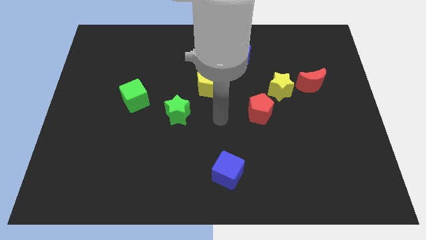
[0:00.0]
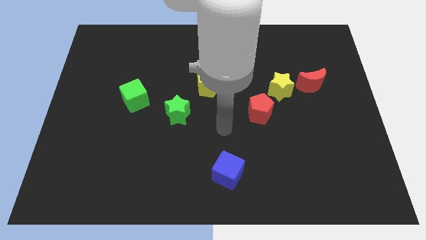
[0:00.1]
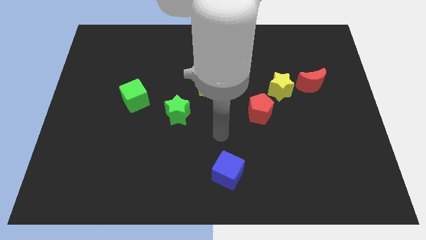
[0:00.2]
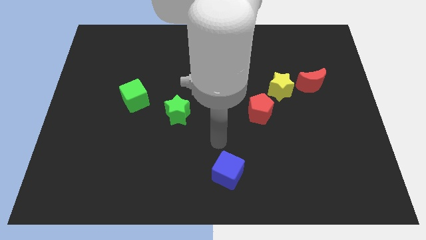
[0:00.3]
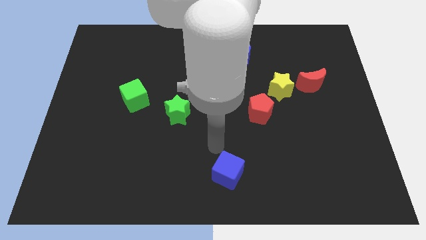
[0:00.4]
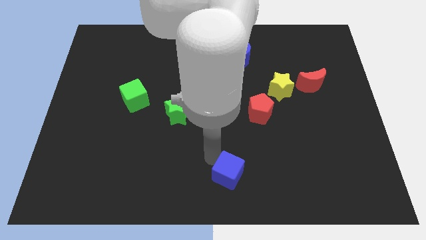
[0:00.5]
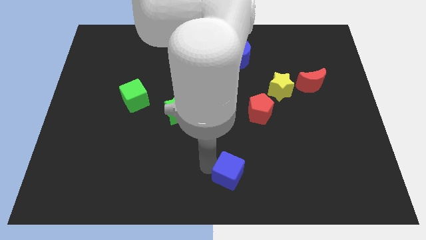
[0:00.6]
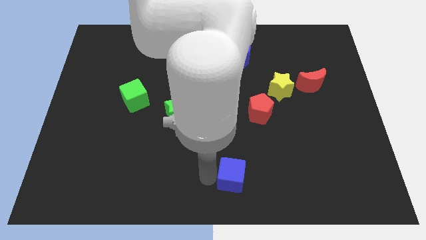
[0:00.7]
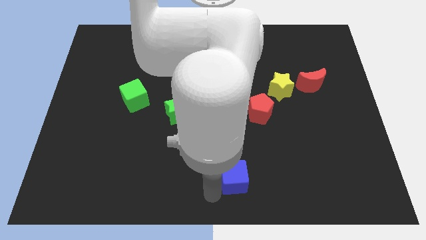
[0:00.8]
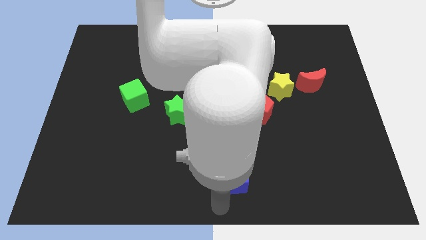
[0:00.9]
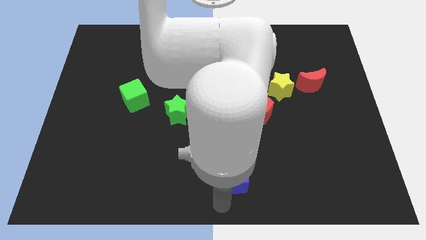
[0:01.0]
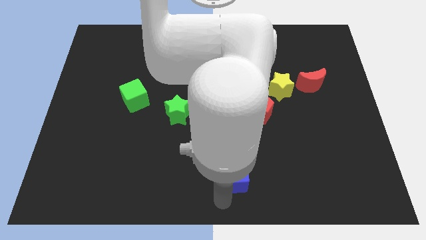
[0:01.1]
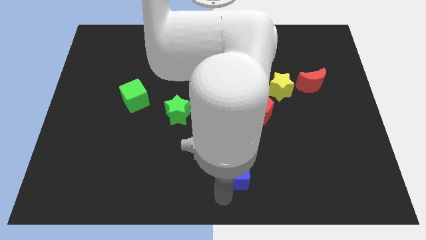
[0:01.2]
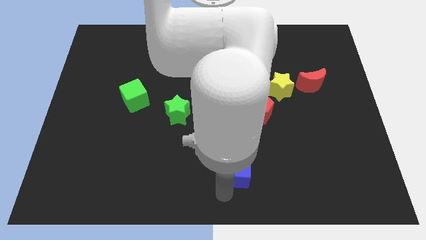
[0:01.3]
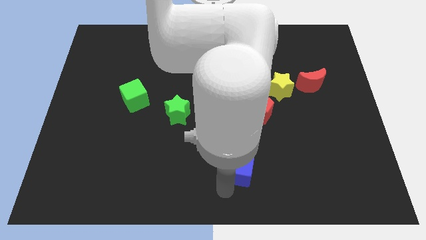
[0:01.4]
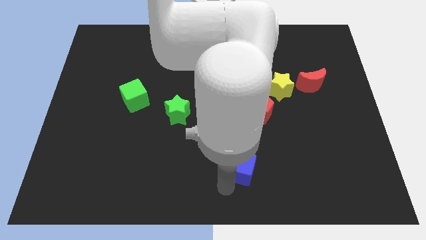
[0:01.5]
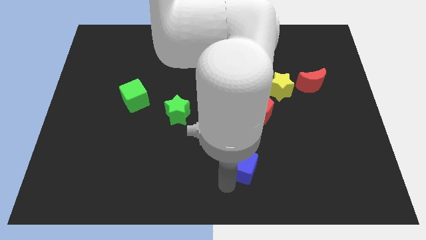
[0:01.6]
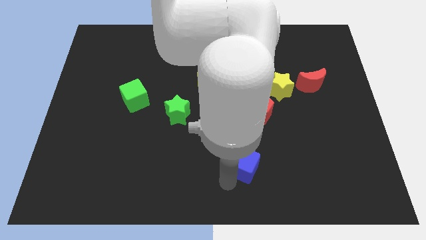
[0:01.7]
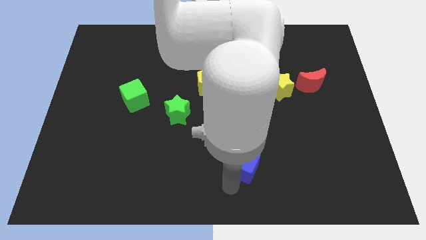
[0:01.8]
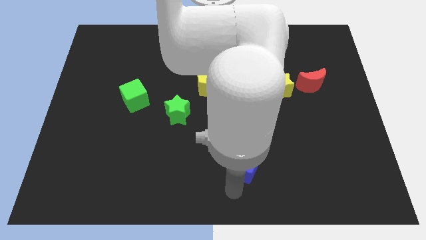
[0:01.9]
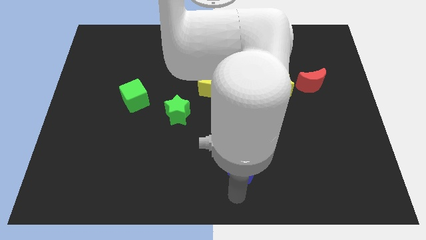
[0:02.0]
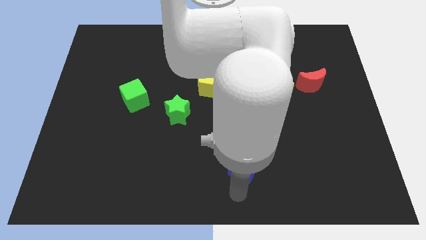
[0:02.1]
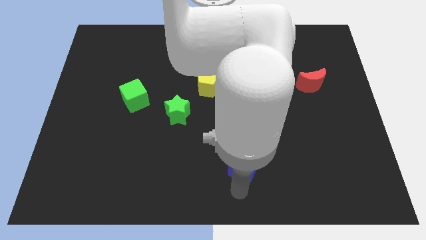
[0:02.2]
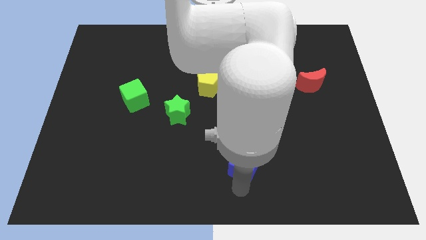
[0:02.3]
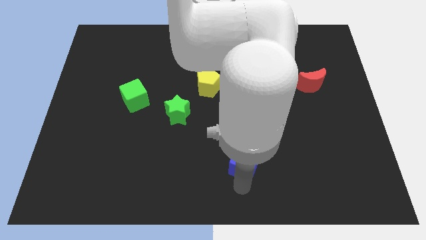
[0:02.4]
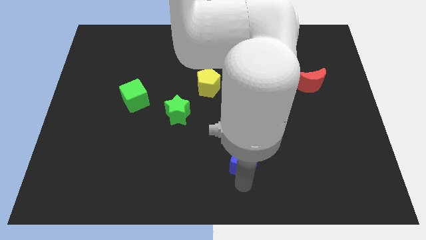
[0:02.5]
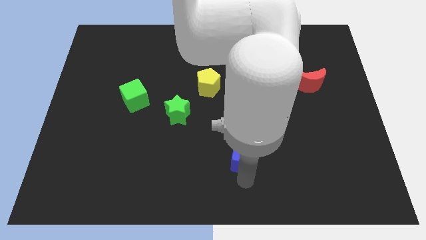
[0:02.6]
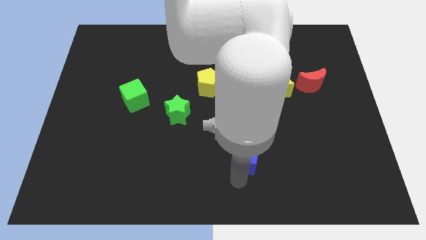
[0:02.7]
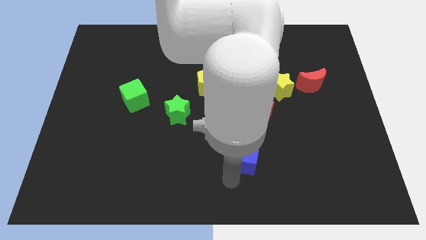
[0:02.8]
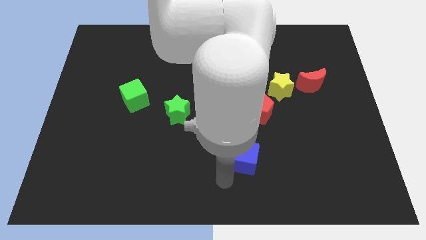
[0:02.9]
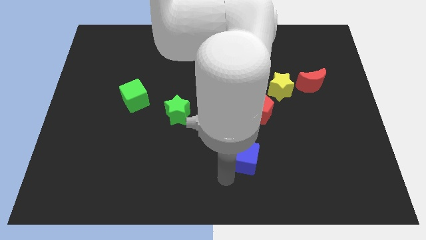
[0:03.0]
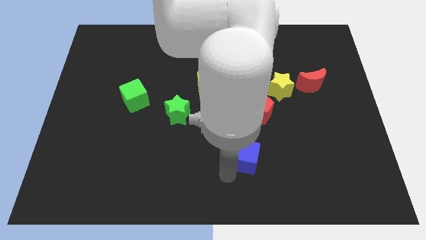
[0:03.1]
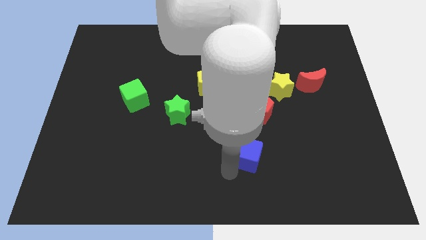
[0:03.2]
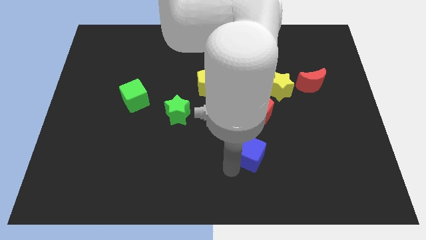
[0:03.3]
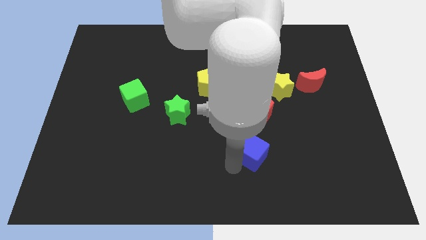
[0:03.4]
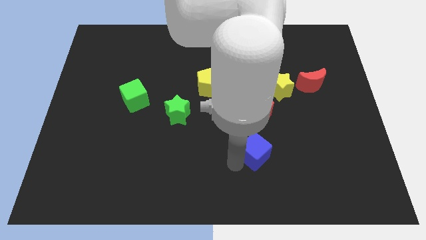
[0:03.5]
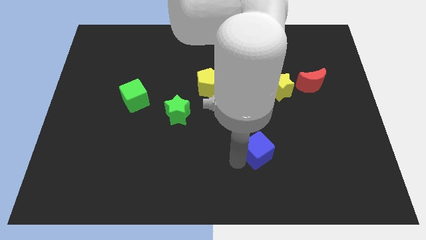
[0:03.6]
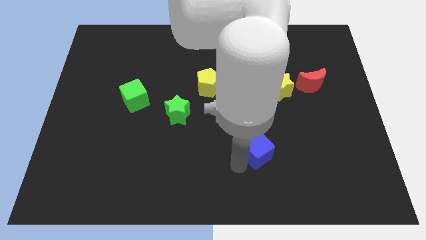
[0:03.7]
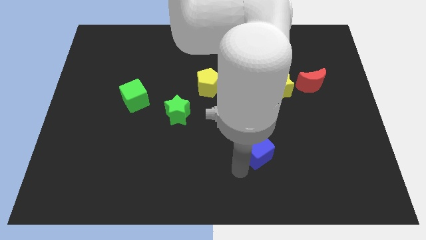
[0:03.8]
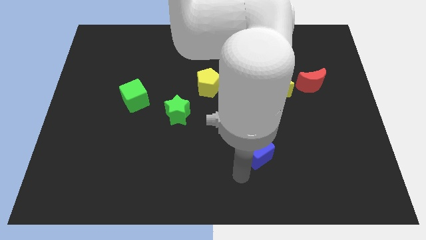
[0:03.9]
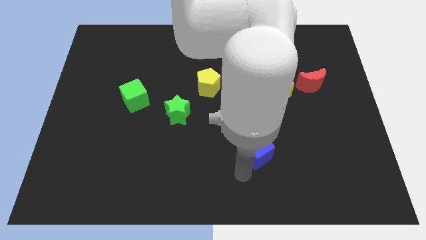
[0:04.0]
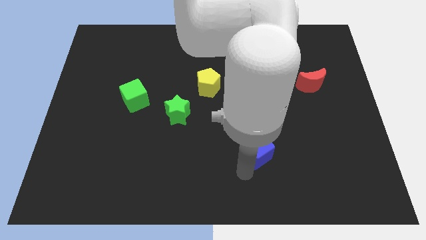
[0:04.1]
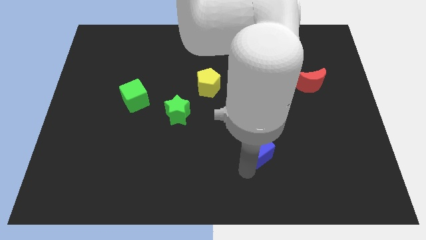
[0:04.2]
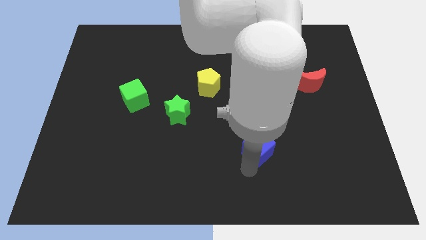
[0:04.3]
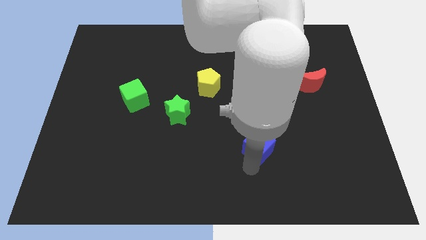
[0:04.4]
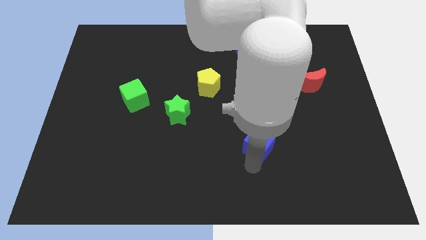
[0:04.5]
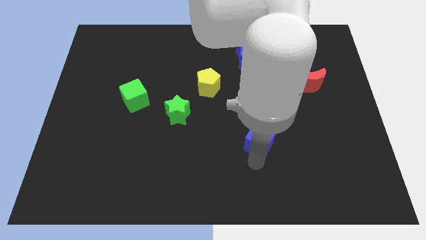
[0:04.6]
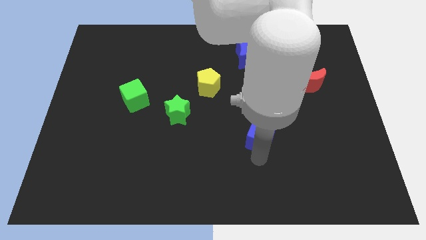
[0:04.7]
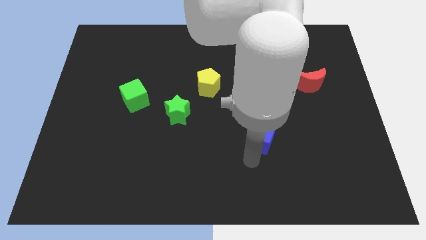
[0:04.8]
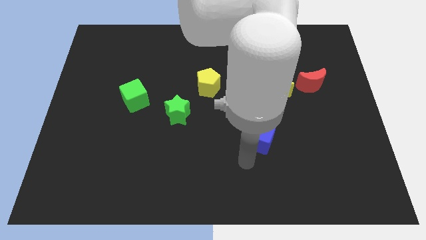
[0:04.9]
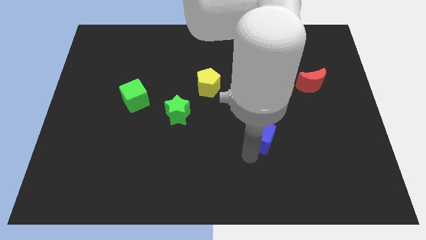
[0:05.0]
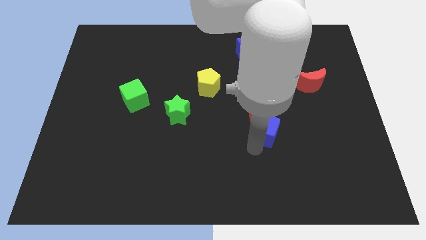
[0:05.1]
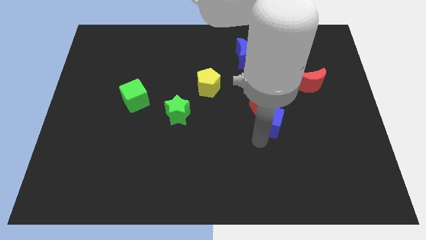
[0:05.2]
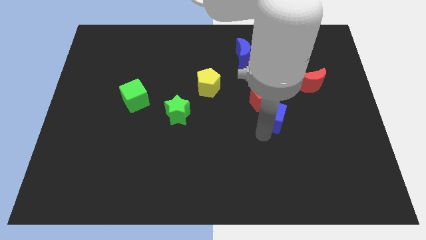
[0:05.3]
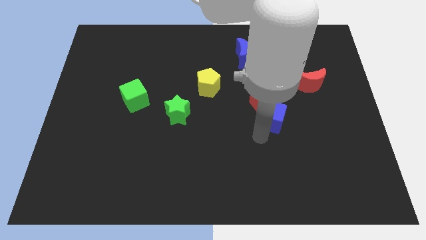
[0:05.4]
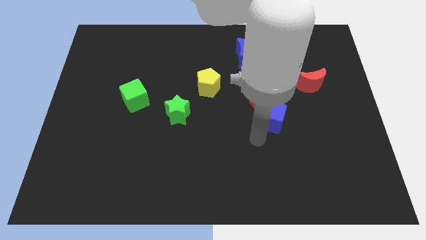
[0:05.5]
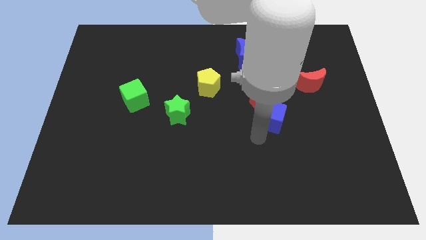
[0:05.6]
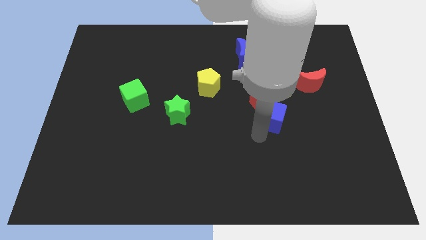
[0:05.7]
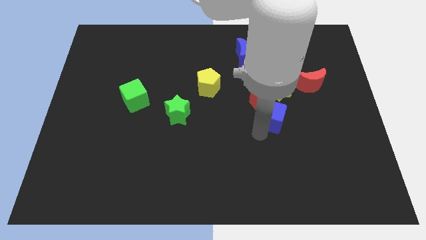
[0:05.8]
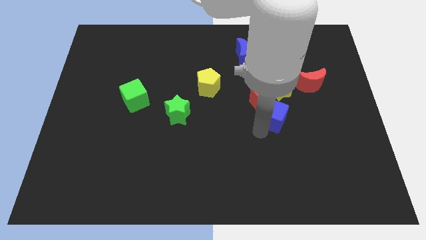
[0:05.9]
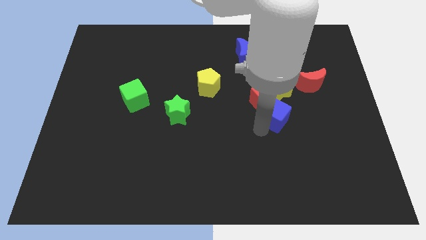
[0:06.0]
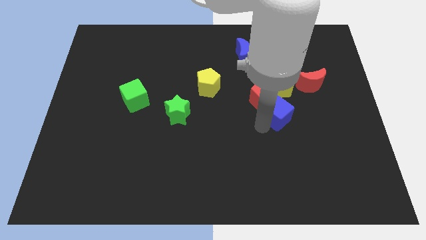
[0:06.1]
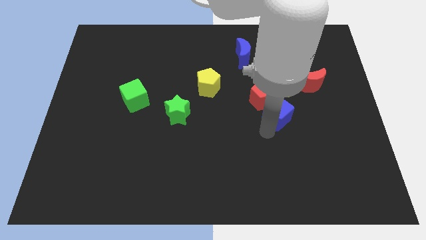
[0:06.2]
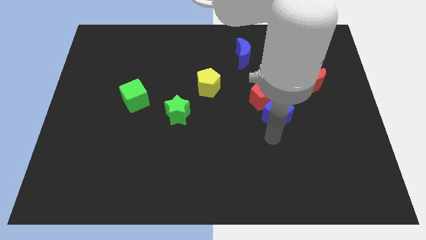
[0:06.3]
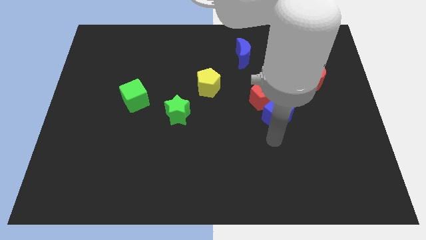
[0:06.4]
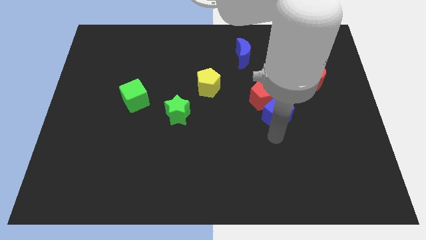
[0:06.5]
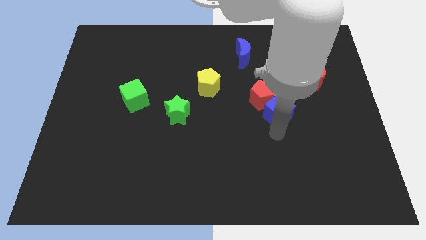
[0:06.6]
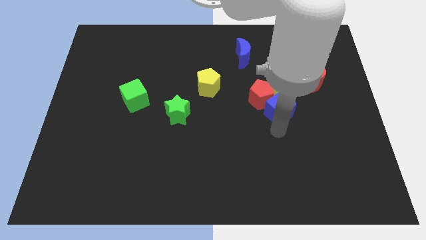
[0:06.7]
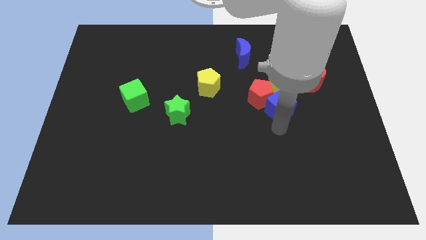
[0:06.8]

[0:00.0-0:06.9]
slide the blue cube towards the yellow star

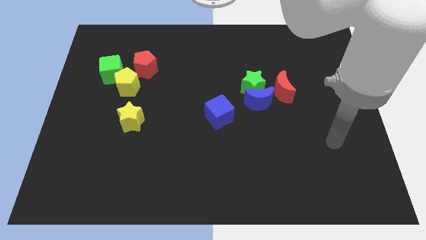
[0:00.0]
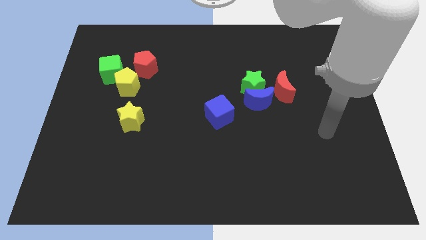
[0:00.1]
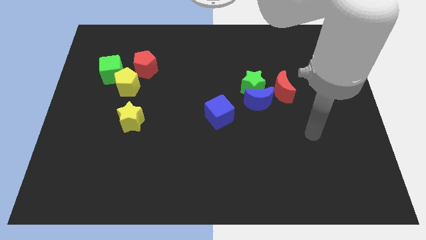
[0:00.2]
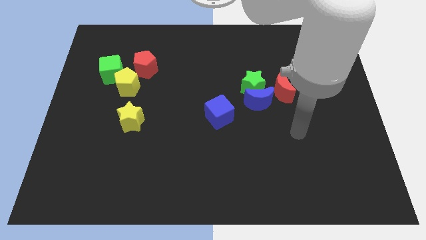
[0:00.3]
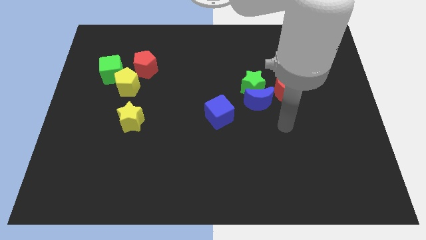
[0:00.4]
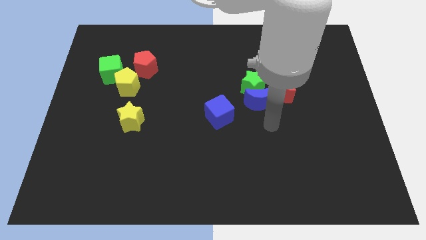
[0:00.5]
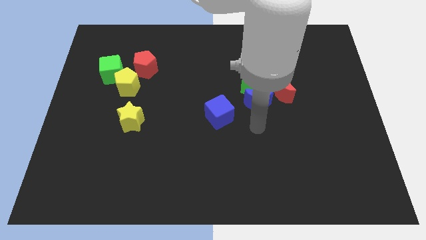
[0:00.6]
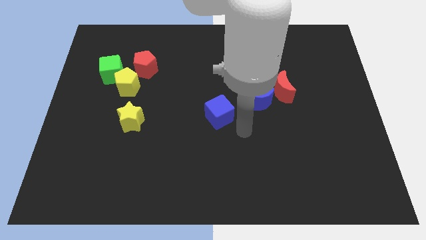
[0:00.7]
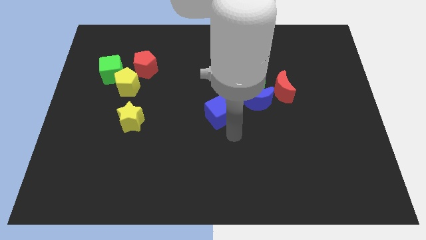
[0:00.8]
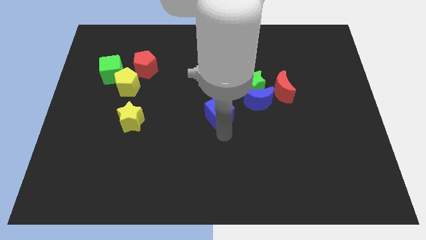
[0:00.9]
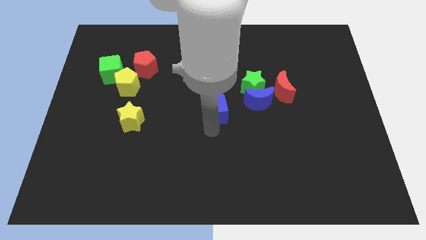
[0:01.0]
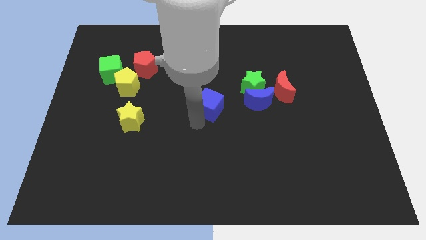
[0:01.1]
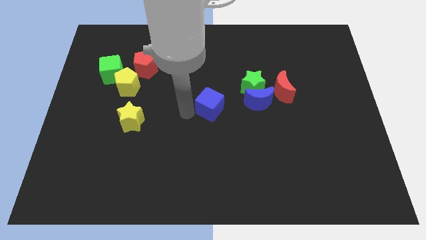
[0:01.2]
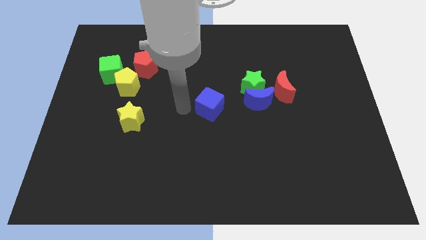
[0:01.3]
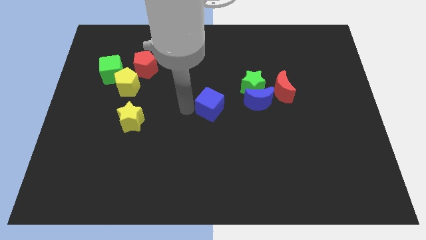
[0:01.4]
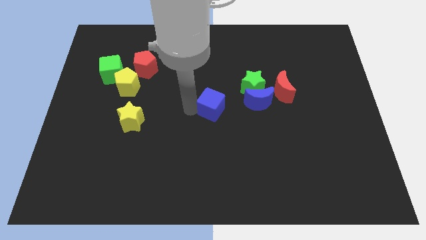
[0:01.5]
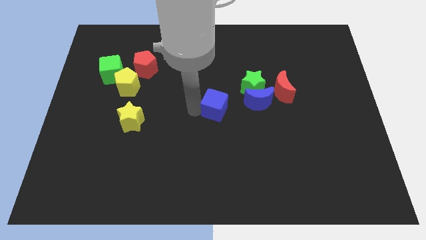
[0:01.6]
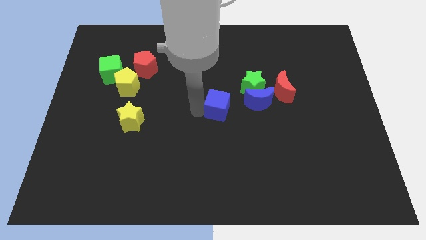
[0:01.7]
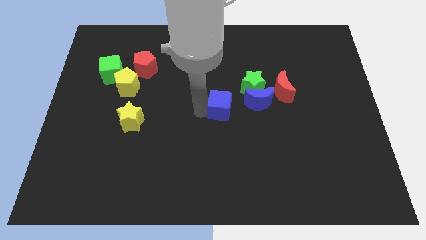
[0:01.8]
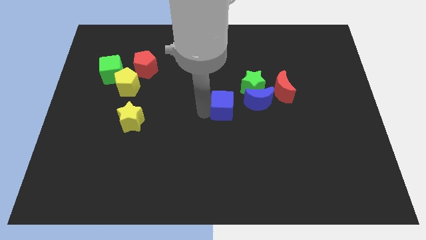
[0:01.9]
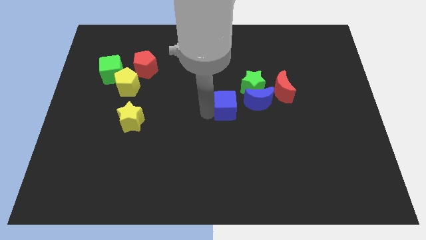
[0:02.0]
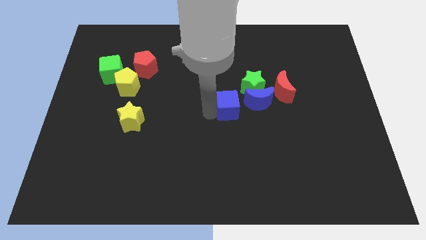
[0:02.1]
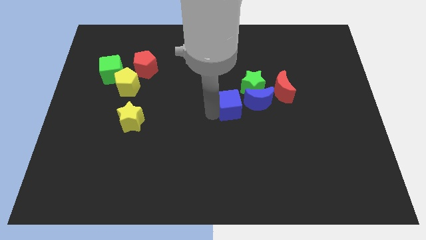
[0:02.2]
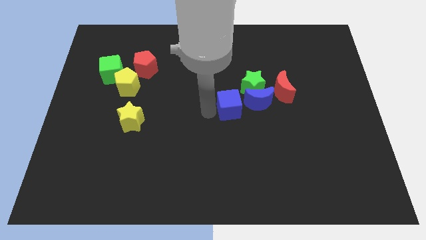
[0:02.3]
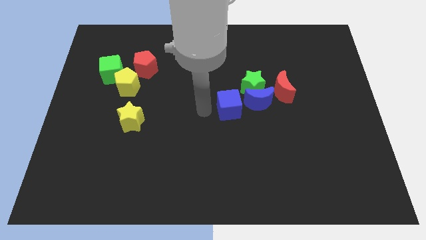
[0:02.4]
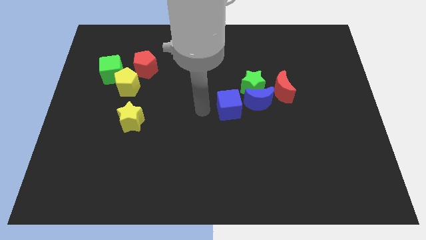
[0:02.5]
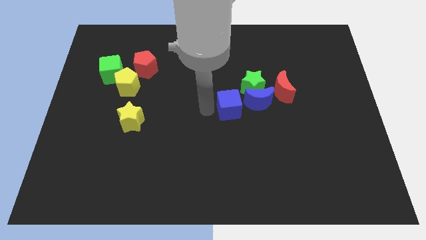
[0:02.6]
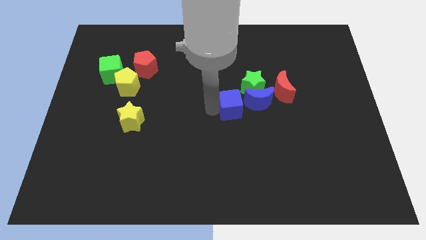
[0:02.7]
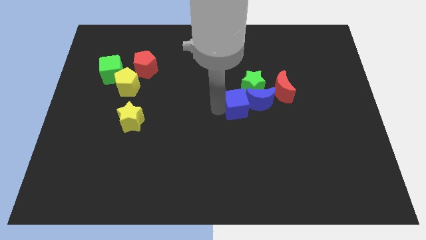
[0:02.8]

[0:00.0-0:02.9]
slide the blue cube close to the blue moon
